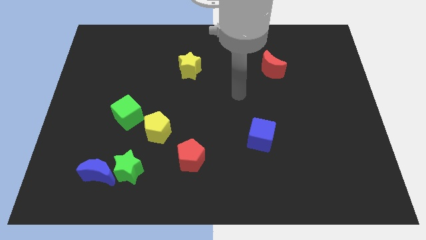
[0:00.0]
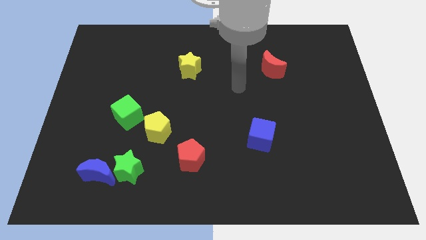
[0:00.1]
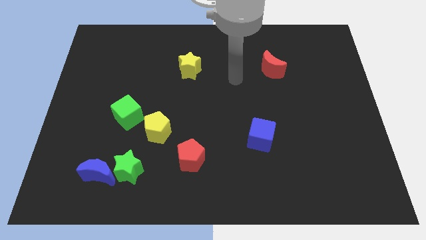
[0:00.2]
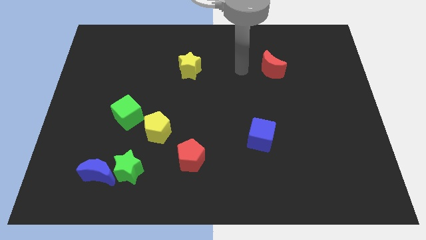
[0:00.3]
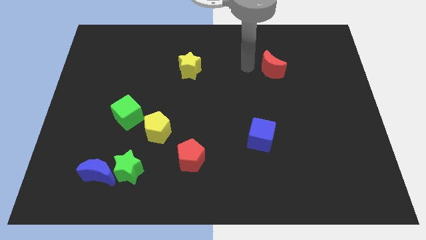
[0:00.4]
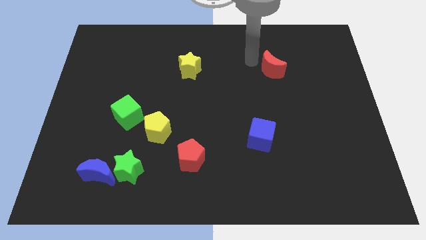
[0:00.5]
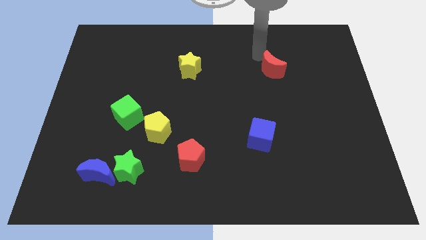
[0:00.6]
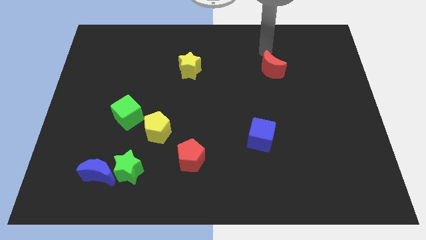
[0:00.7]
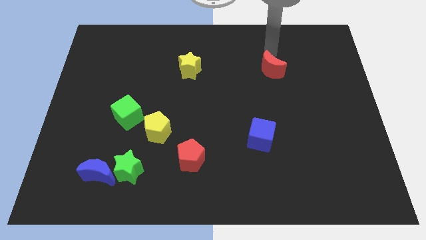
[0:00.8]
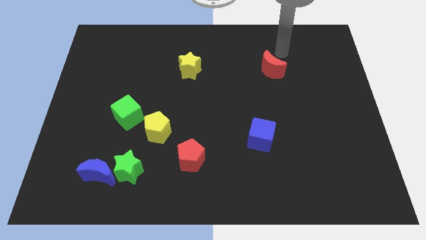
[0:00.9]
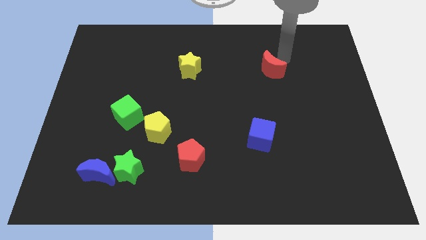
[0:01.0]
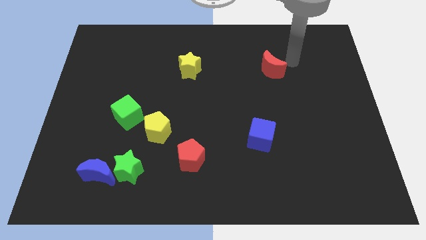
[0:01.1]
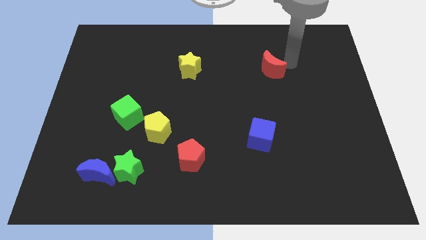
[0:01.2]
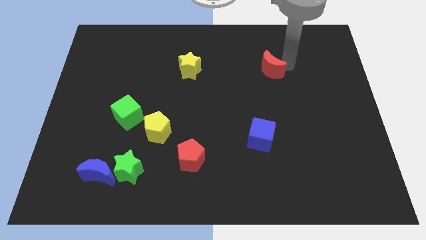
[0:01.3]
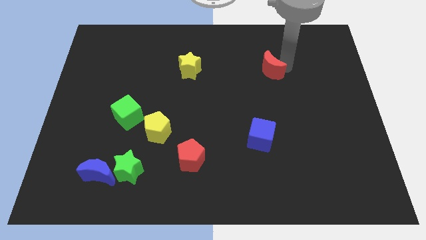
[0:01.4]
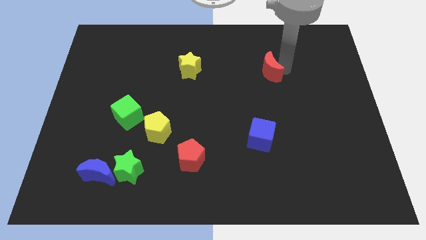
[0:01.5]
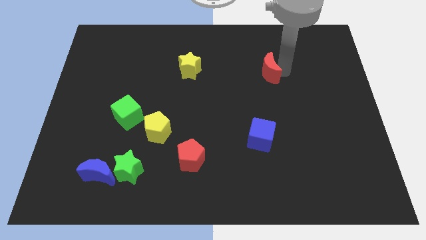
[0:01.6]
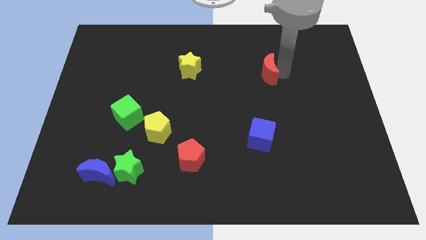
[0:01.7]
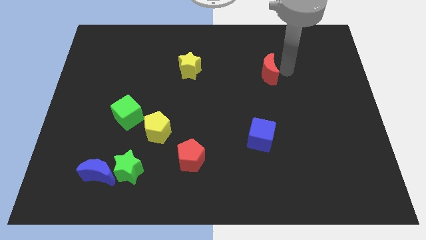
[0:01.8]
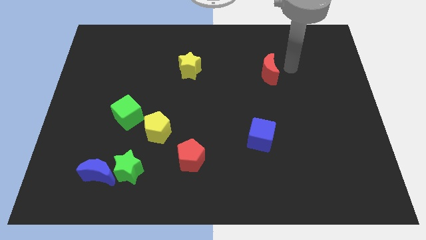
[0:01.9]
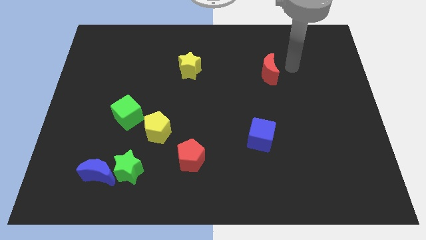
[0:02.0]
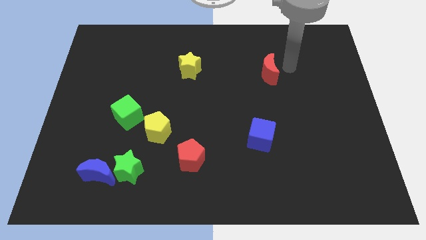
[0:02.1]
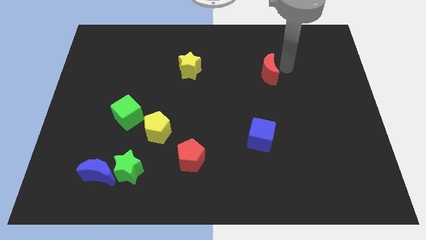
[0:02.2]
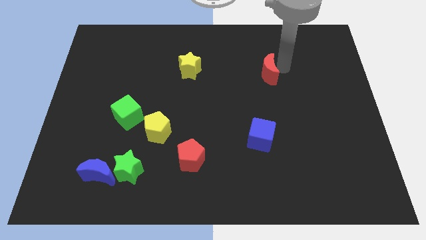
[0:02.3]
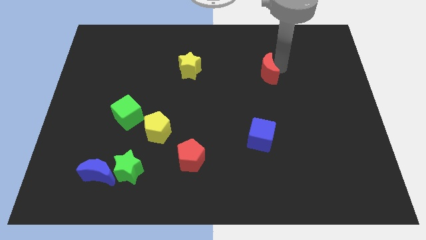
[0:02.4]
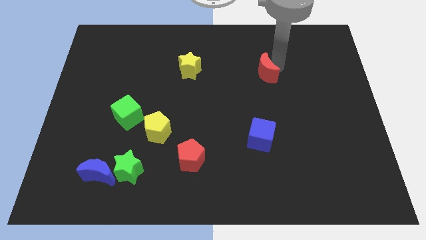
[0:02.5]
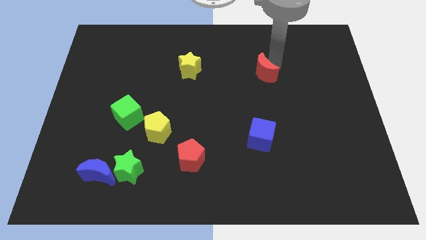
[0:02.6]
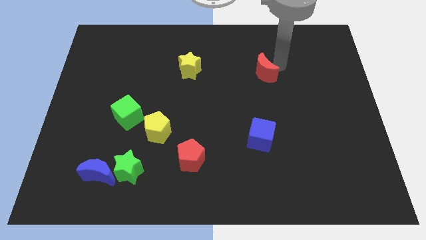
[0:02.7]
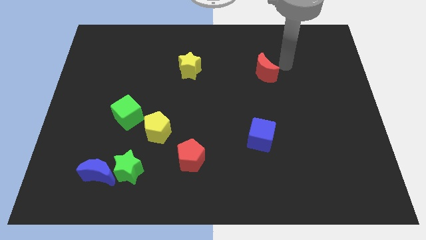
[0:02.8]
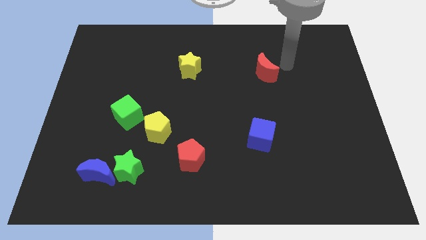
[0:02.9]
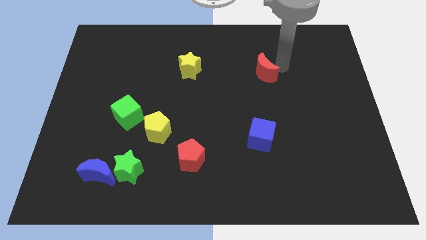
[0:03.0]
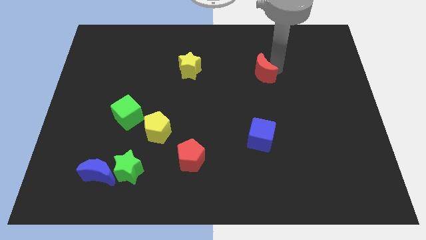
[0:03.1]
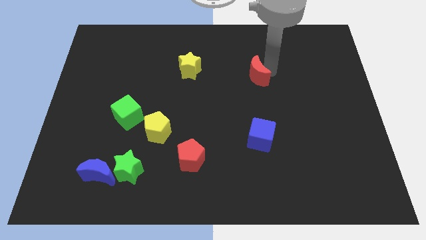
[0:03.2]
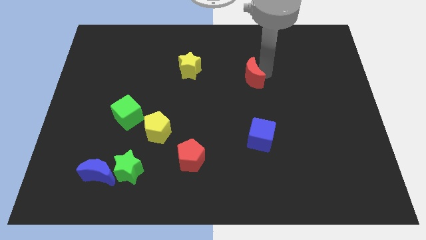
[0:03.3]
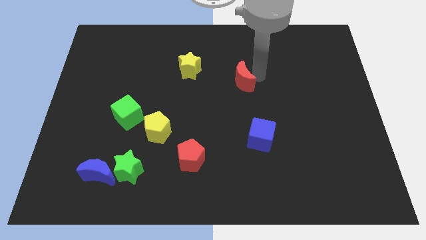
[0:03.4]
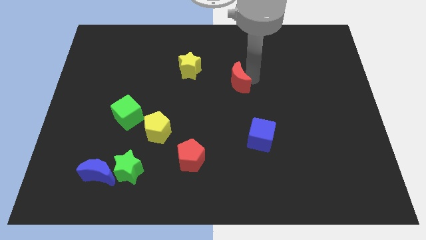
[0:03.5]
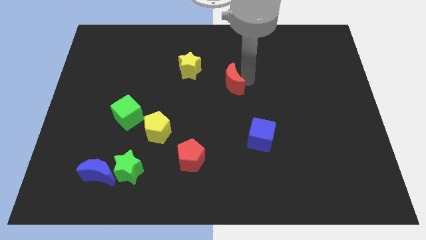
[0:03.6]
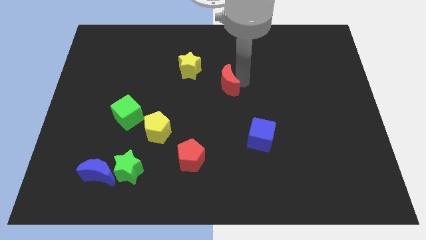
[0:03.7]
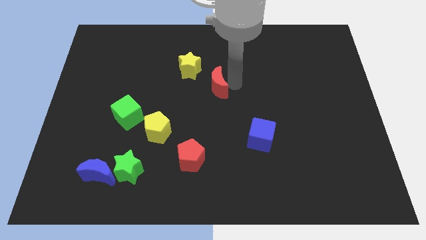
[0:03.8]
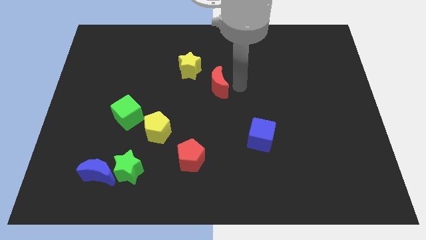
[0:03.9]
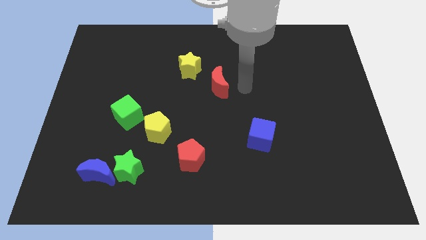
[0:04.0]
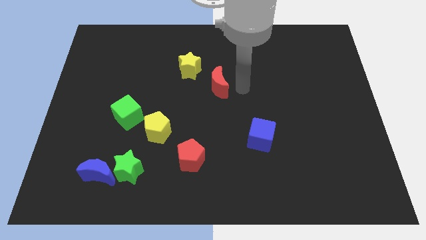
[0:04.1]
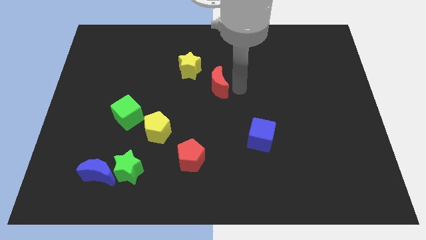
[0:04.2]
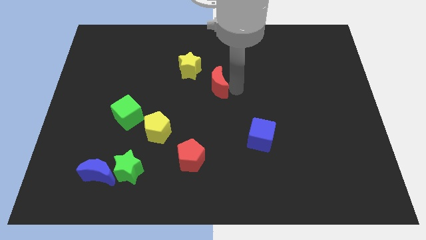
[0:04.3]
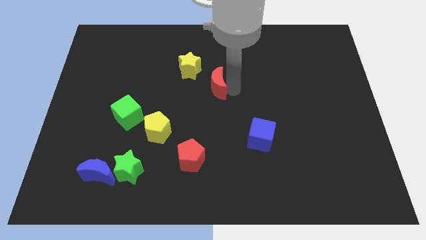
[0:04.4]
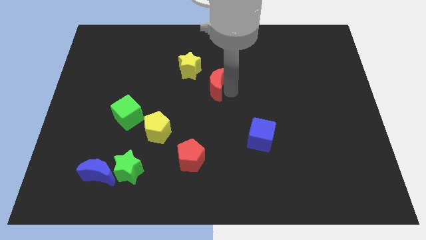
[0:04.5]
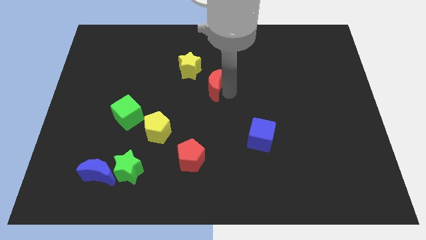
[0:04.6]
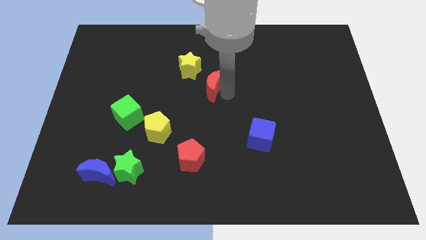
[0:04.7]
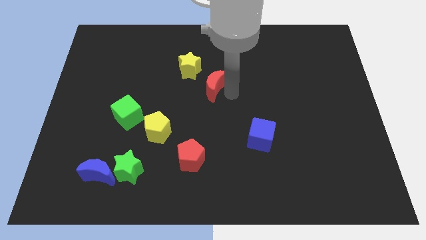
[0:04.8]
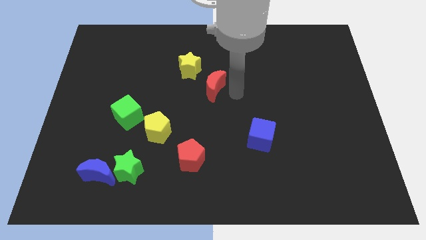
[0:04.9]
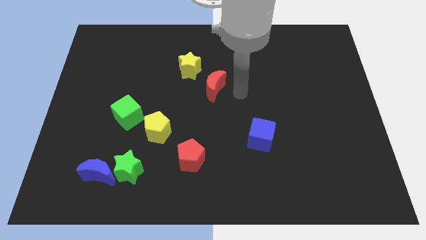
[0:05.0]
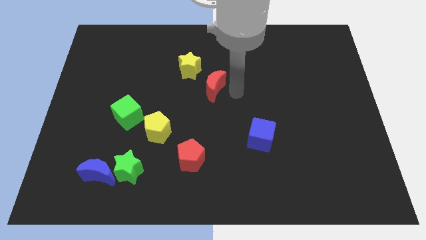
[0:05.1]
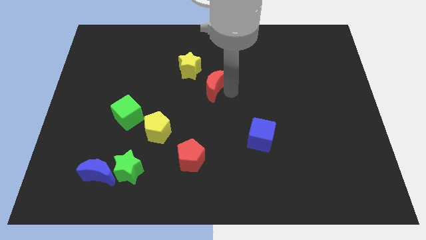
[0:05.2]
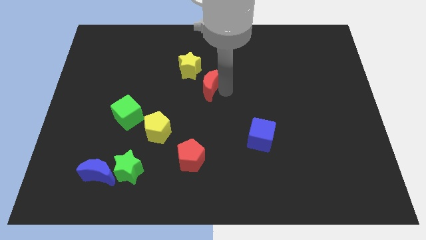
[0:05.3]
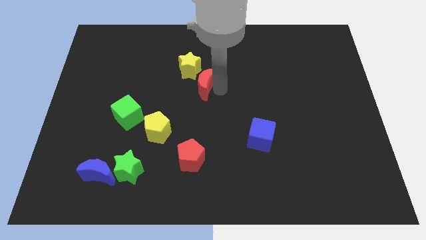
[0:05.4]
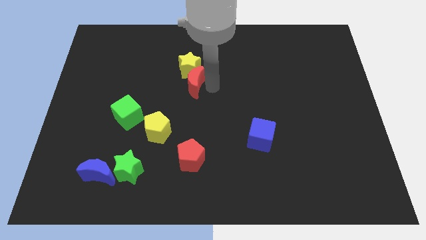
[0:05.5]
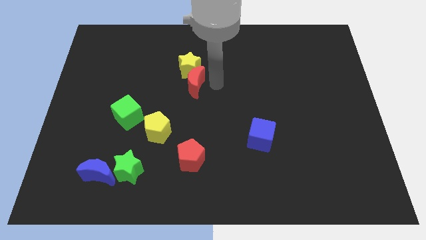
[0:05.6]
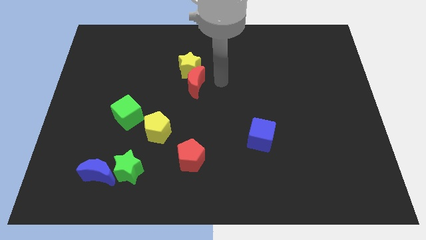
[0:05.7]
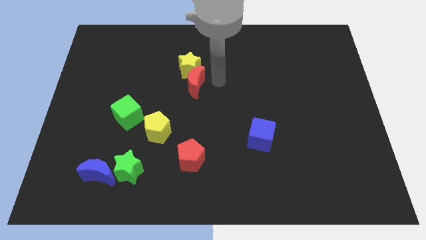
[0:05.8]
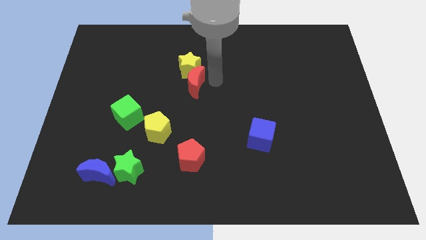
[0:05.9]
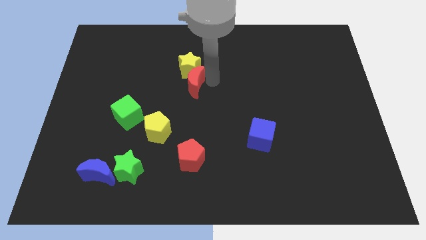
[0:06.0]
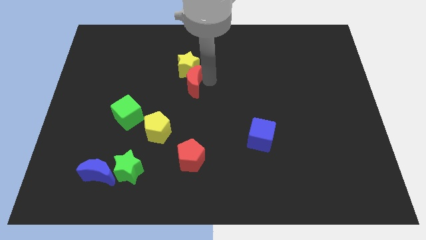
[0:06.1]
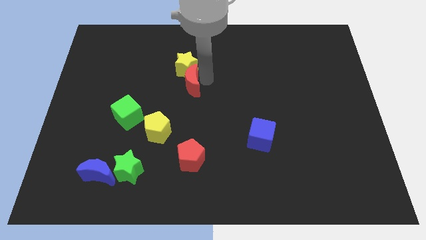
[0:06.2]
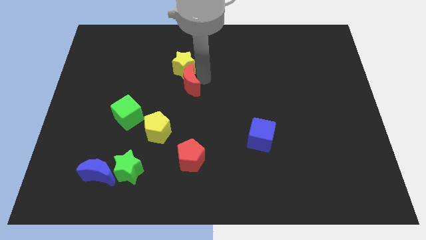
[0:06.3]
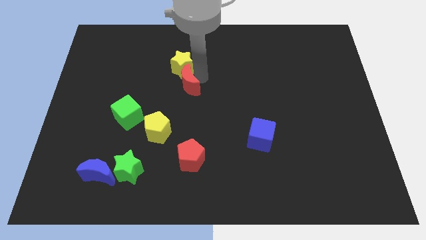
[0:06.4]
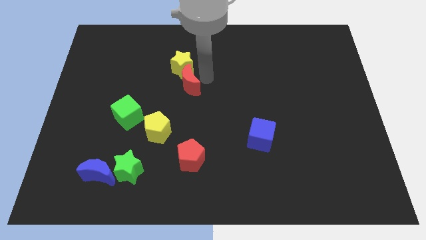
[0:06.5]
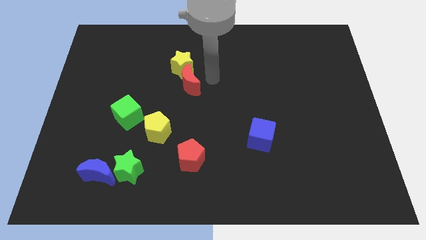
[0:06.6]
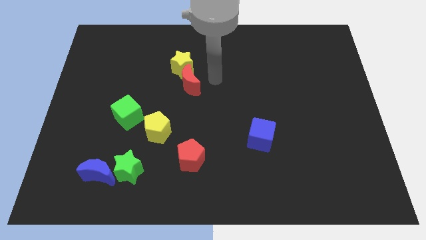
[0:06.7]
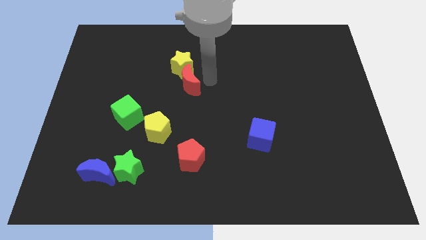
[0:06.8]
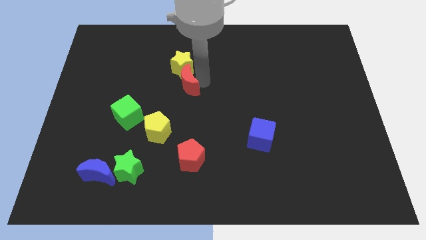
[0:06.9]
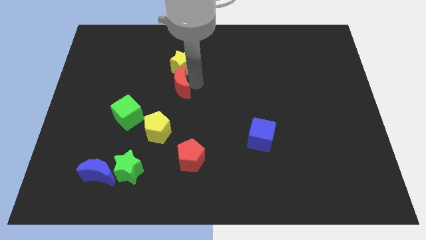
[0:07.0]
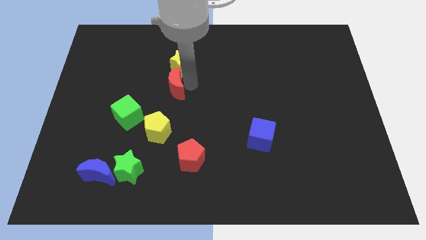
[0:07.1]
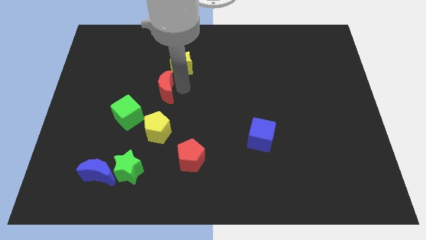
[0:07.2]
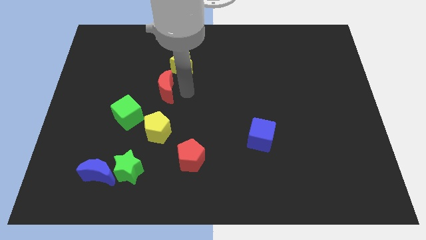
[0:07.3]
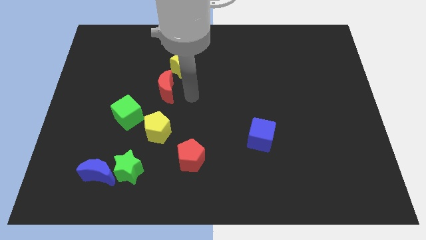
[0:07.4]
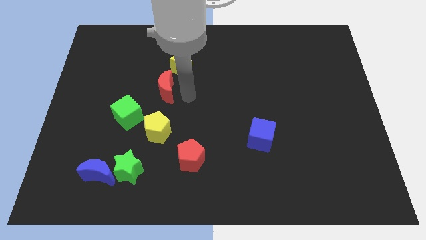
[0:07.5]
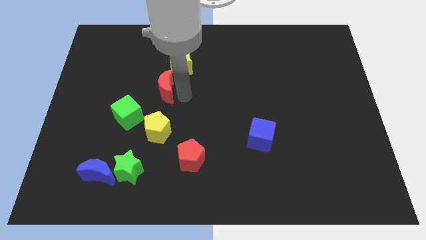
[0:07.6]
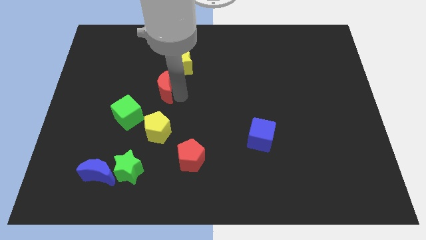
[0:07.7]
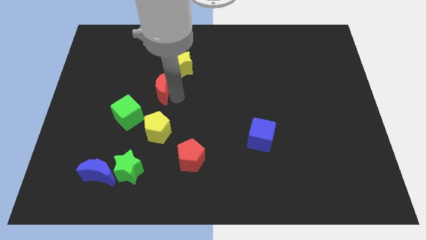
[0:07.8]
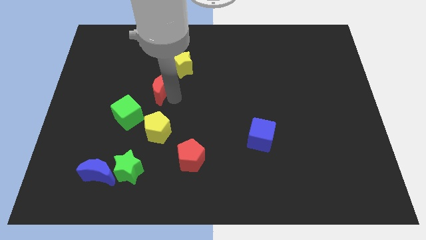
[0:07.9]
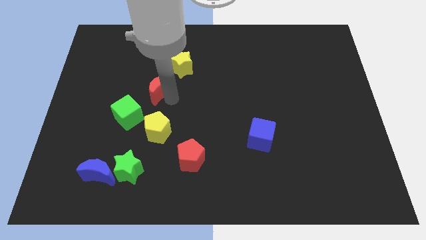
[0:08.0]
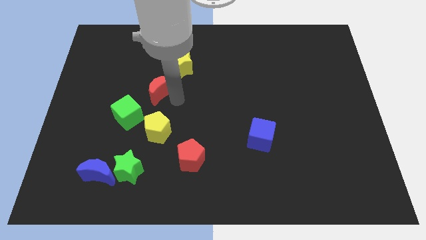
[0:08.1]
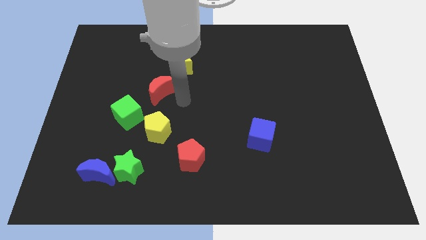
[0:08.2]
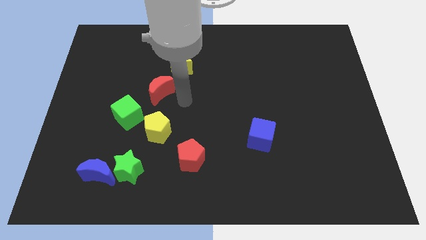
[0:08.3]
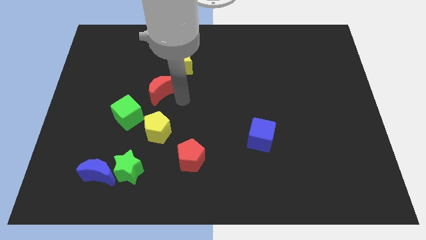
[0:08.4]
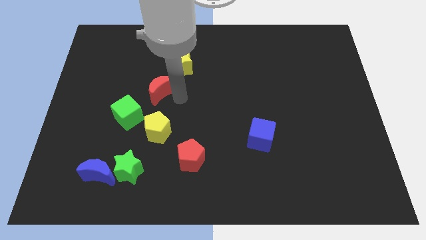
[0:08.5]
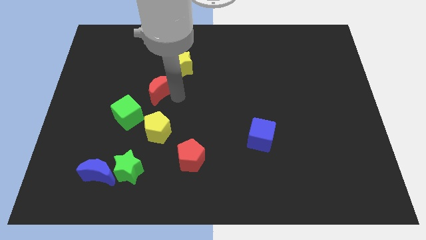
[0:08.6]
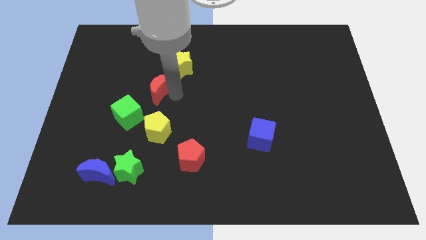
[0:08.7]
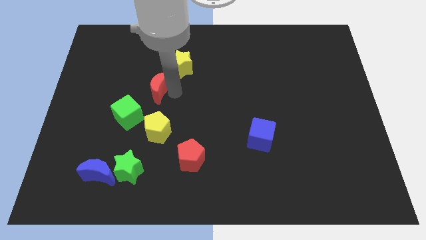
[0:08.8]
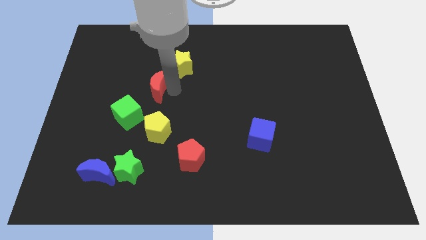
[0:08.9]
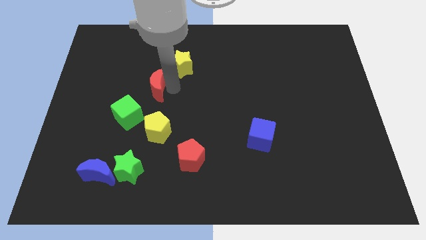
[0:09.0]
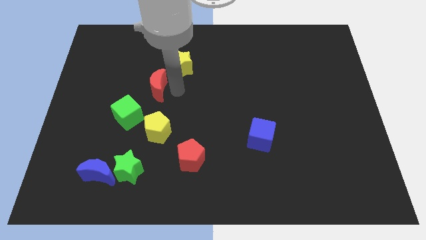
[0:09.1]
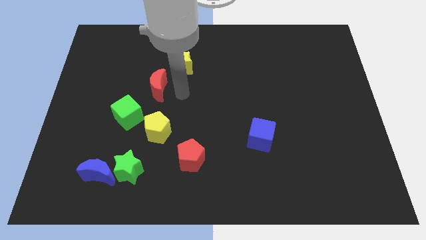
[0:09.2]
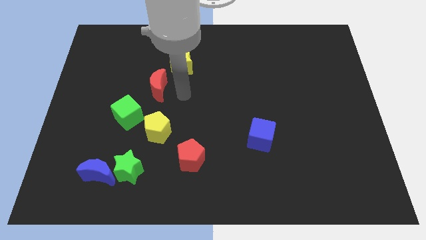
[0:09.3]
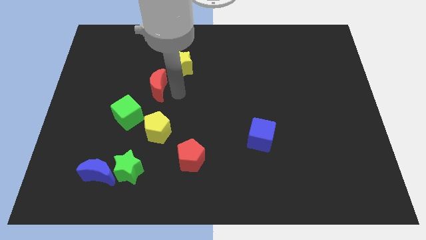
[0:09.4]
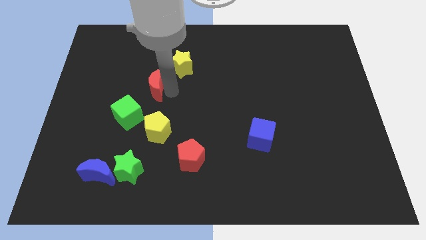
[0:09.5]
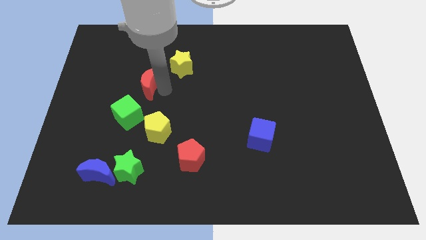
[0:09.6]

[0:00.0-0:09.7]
move the red moon above the green cube
